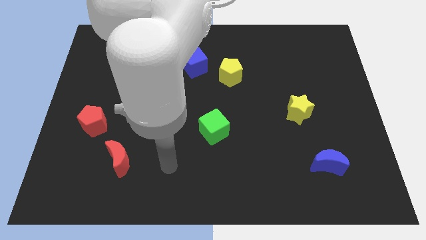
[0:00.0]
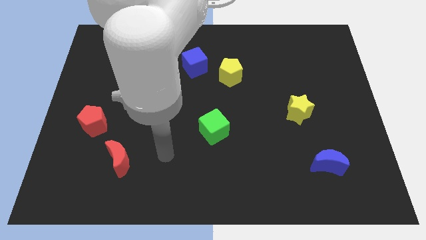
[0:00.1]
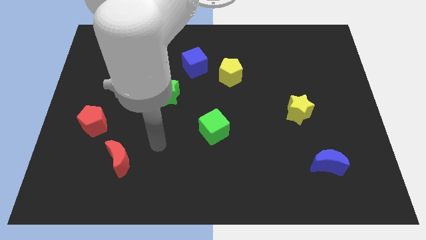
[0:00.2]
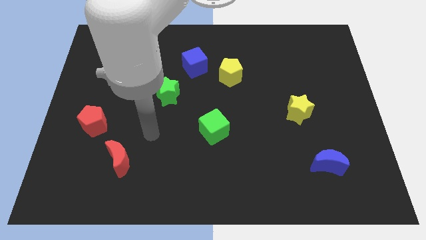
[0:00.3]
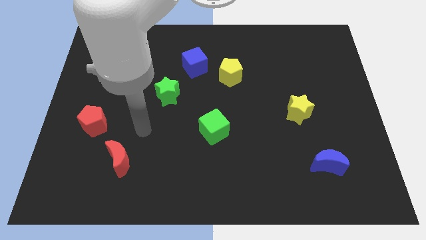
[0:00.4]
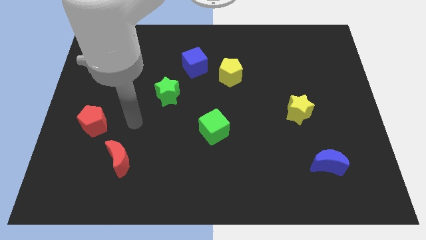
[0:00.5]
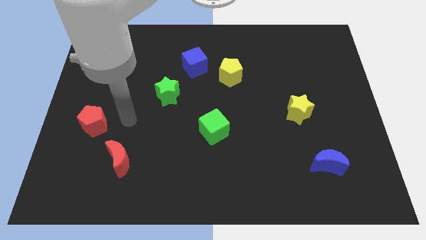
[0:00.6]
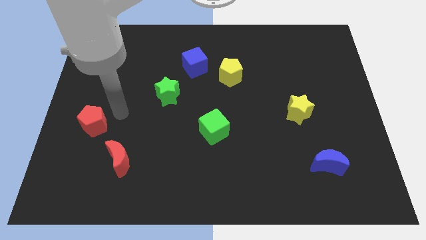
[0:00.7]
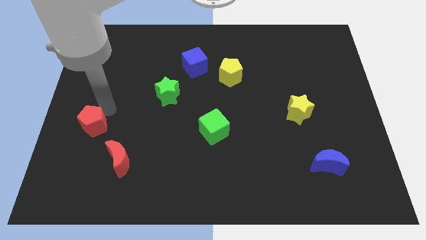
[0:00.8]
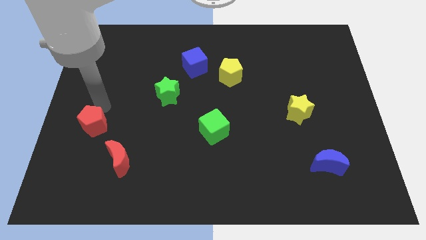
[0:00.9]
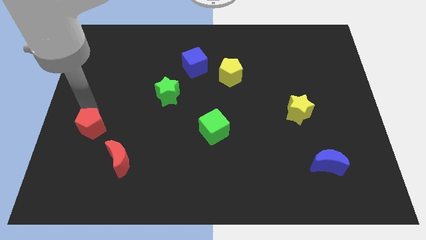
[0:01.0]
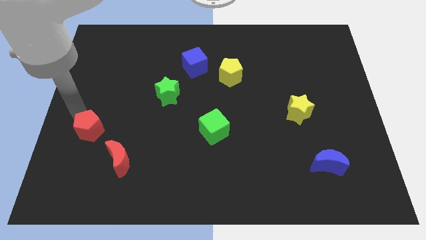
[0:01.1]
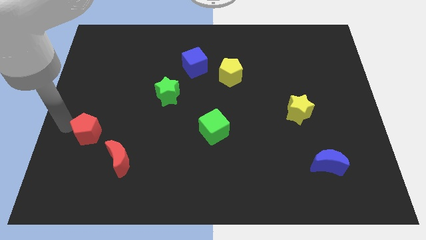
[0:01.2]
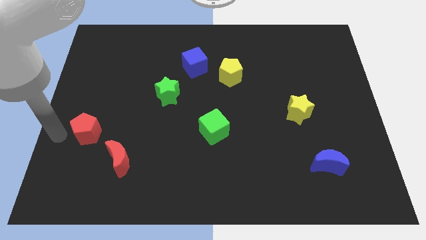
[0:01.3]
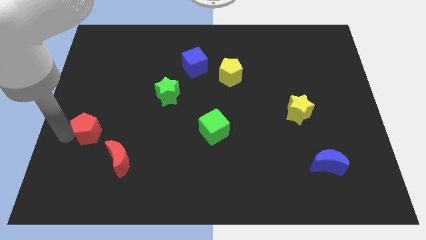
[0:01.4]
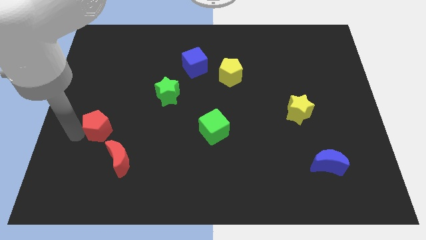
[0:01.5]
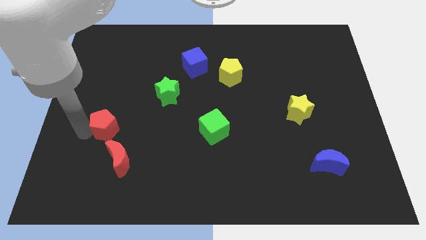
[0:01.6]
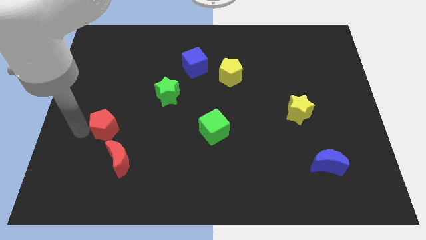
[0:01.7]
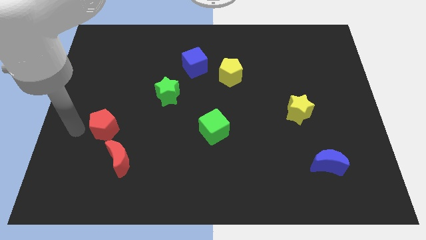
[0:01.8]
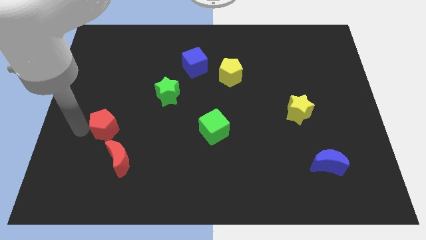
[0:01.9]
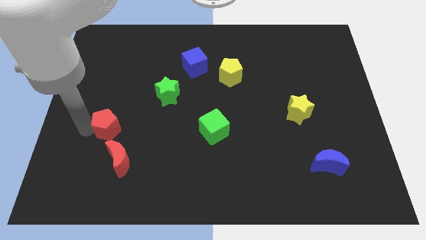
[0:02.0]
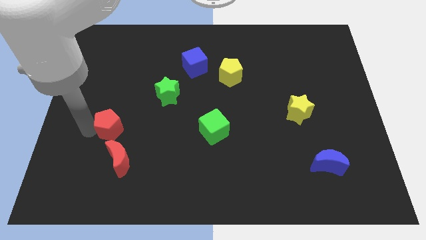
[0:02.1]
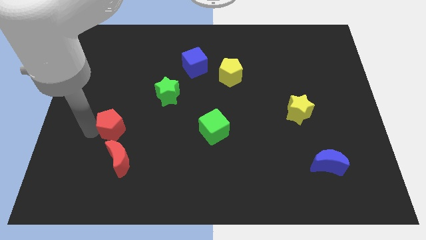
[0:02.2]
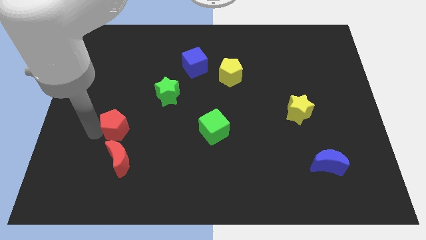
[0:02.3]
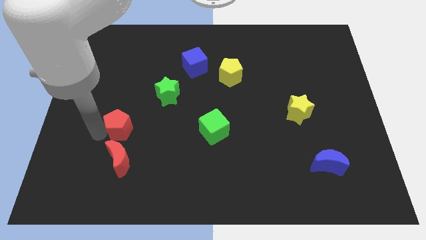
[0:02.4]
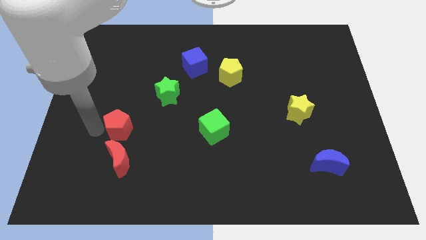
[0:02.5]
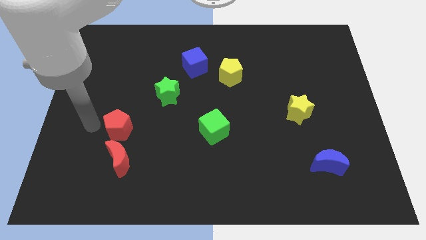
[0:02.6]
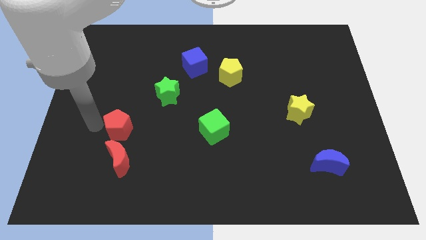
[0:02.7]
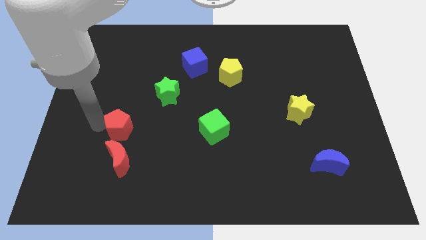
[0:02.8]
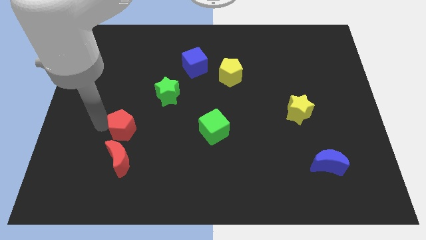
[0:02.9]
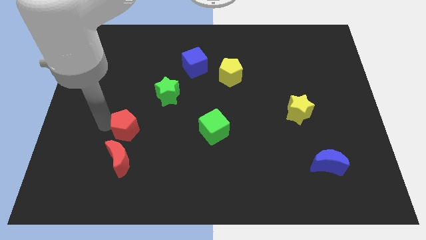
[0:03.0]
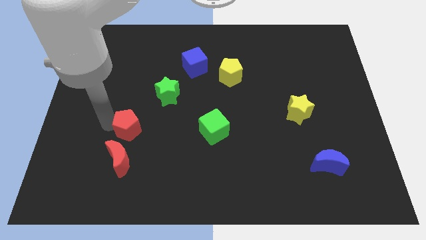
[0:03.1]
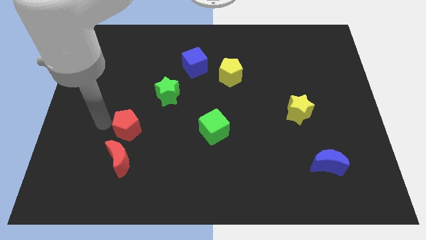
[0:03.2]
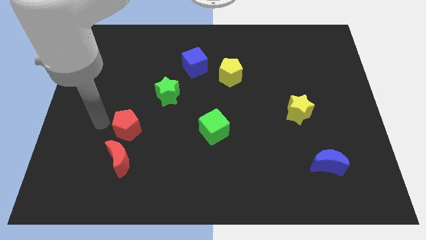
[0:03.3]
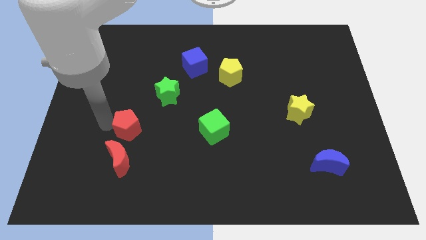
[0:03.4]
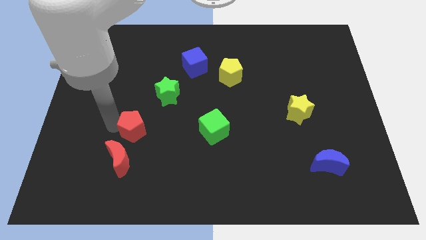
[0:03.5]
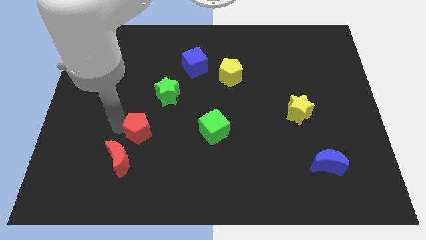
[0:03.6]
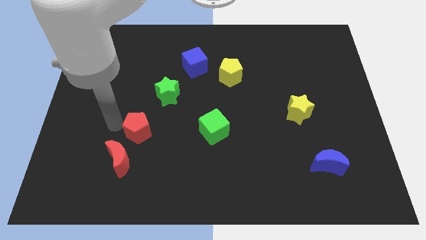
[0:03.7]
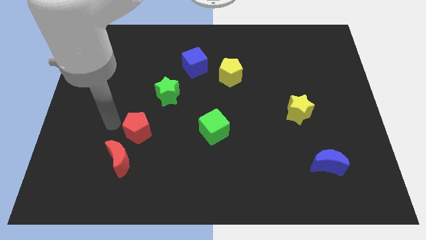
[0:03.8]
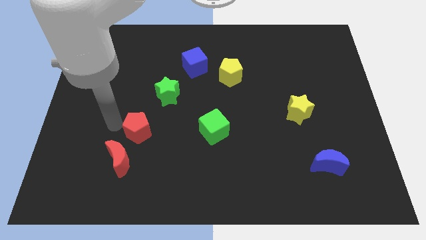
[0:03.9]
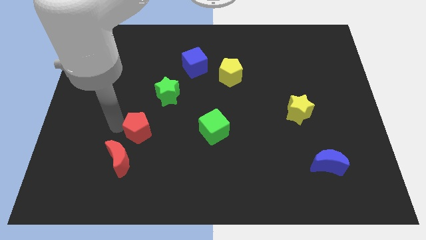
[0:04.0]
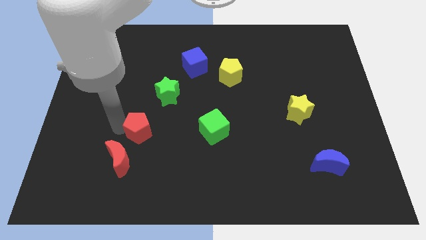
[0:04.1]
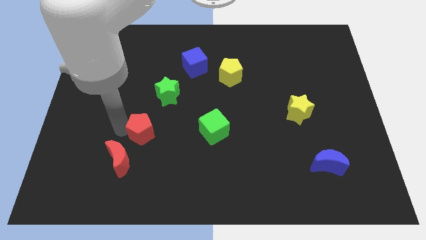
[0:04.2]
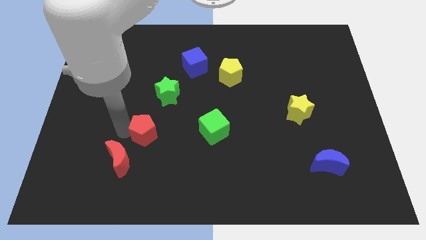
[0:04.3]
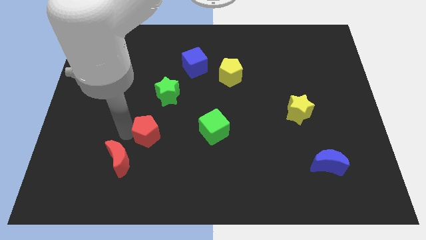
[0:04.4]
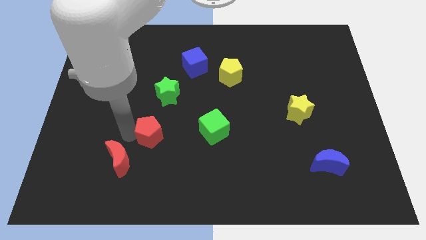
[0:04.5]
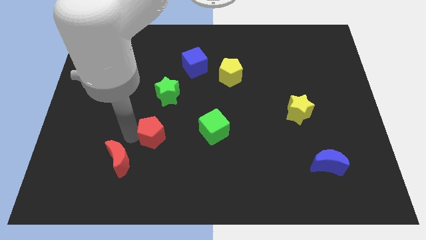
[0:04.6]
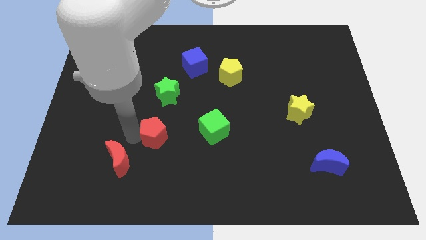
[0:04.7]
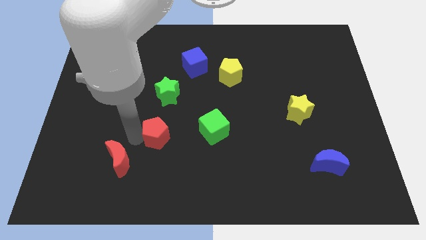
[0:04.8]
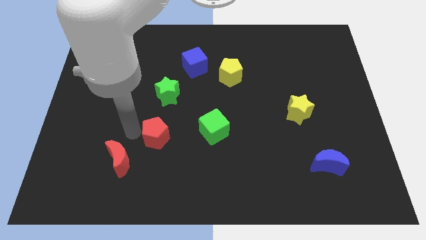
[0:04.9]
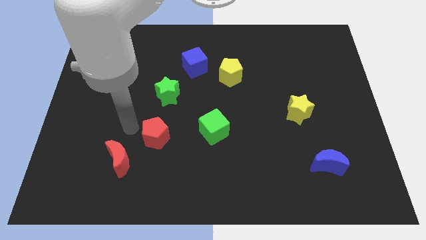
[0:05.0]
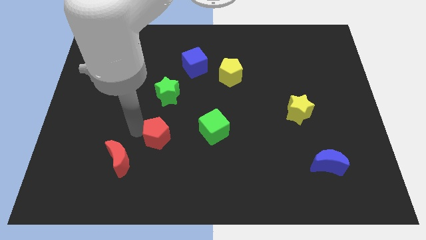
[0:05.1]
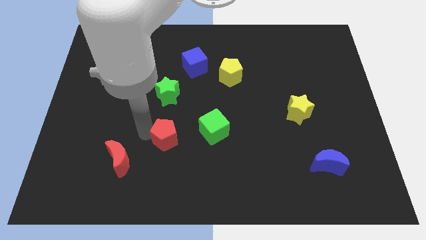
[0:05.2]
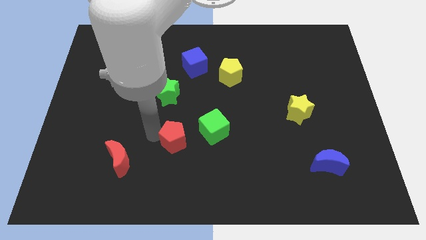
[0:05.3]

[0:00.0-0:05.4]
slide the red pentagon to the bottom left side of the green cube

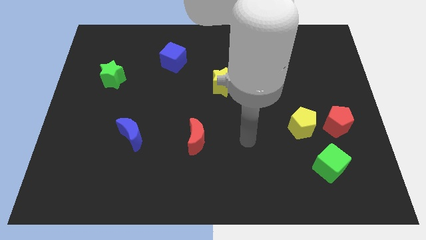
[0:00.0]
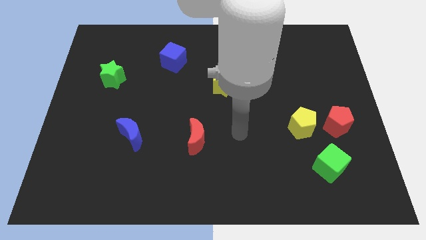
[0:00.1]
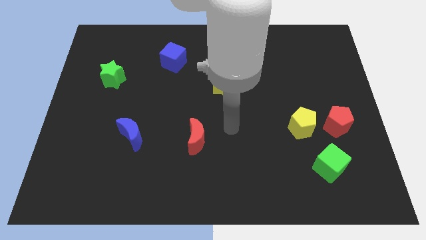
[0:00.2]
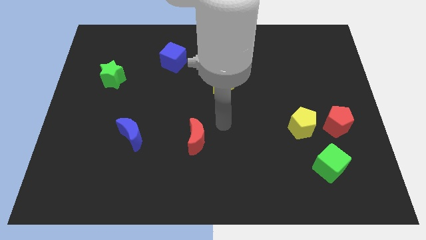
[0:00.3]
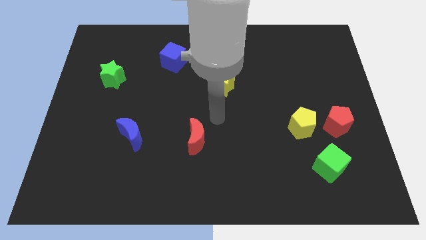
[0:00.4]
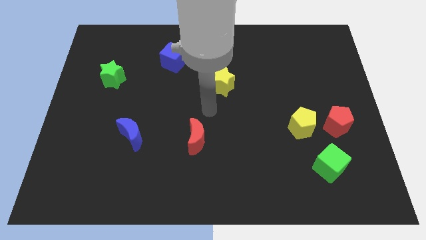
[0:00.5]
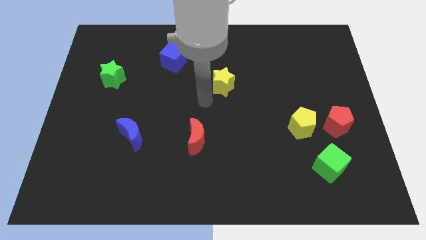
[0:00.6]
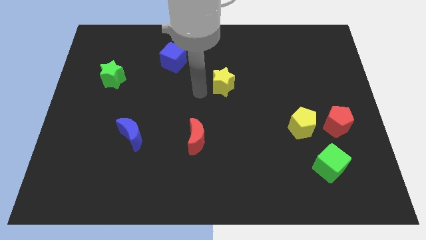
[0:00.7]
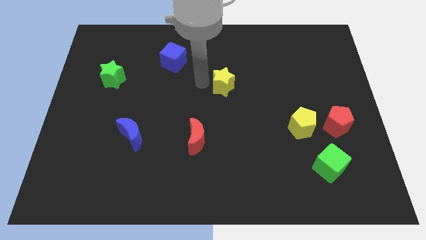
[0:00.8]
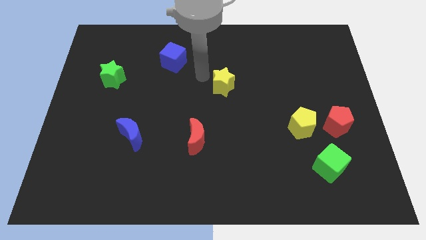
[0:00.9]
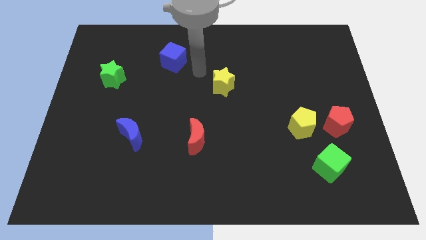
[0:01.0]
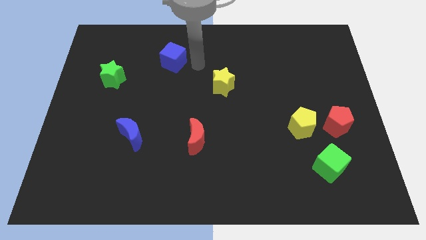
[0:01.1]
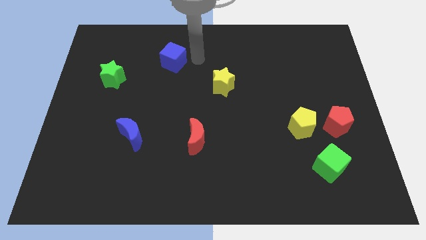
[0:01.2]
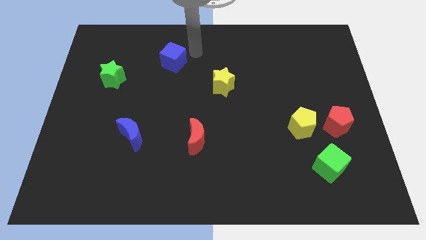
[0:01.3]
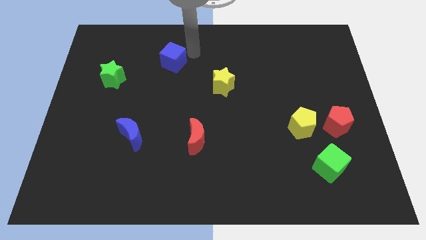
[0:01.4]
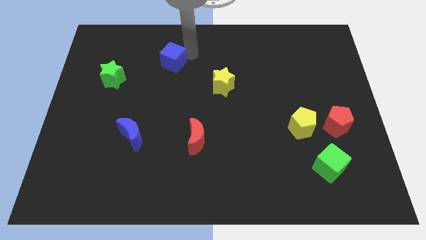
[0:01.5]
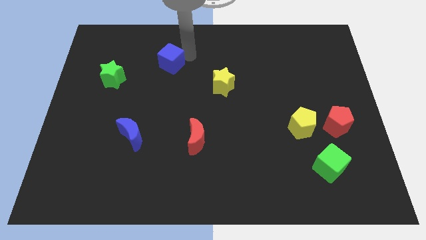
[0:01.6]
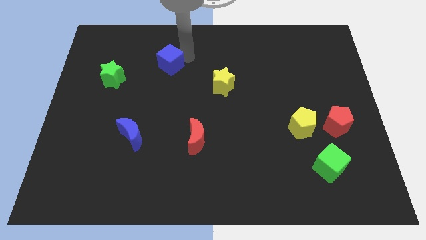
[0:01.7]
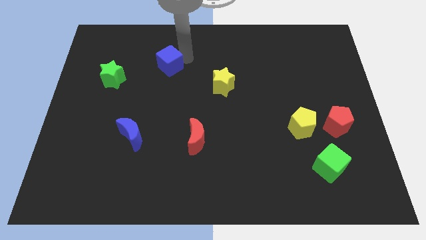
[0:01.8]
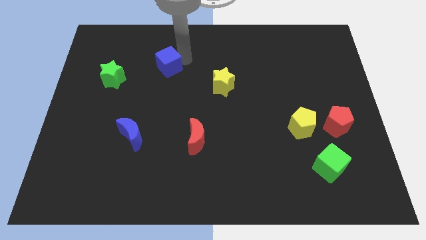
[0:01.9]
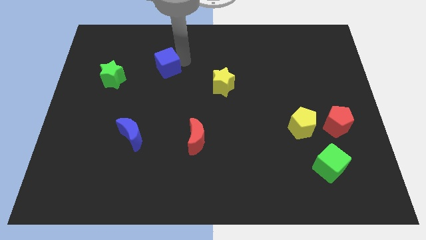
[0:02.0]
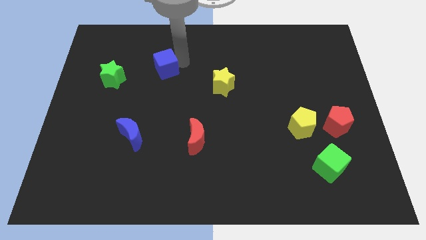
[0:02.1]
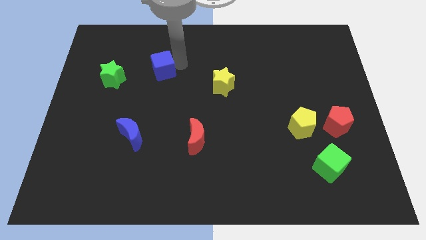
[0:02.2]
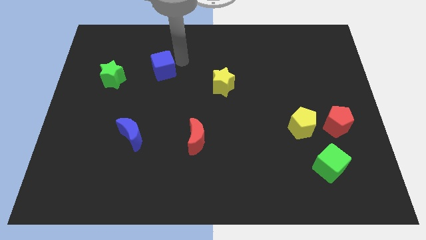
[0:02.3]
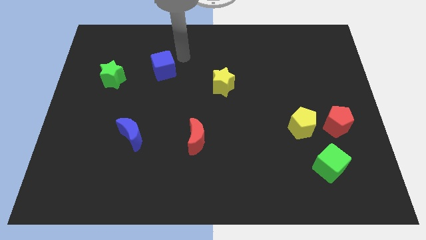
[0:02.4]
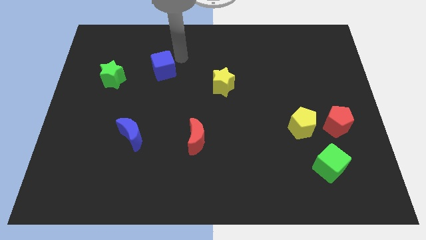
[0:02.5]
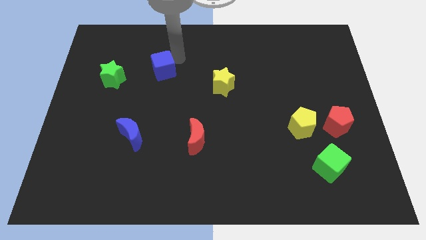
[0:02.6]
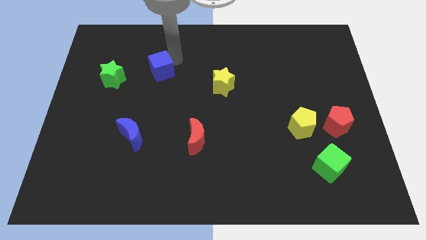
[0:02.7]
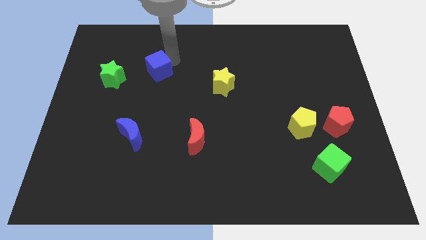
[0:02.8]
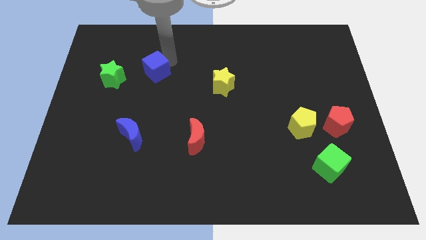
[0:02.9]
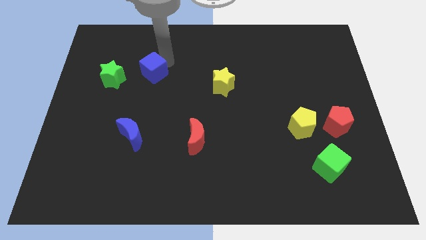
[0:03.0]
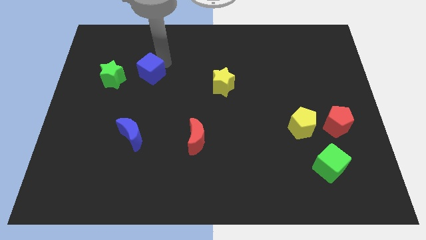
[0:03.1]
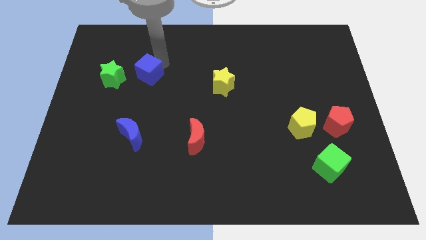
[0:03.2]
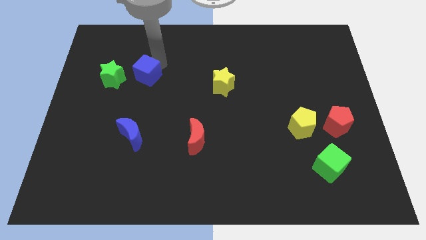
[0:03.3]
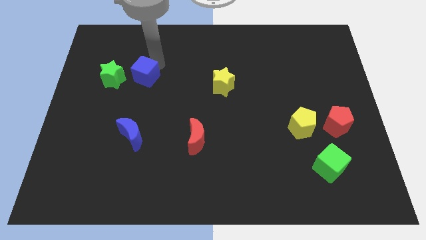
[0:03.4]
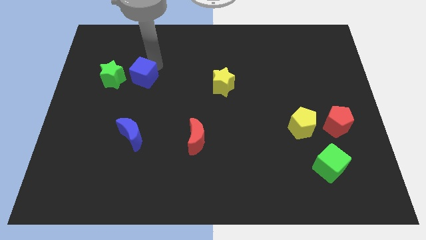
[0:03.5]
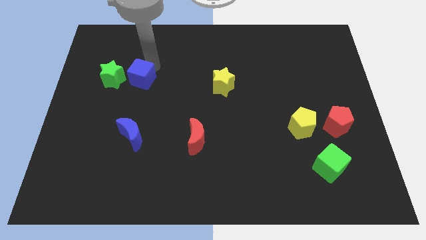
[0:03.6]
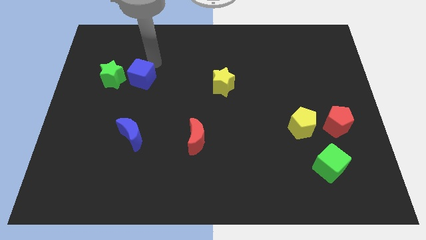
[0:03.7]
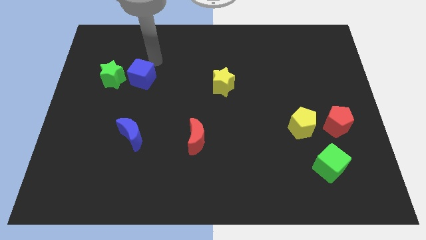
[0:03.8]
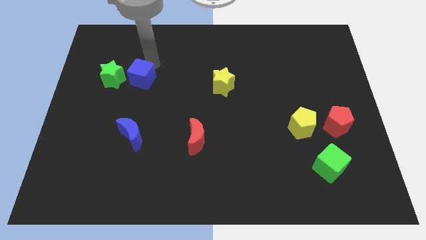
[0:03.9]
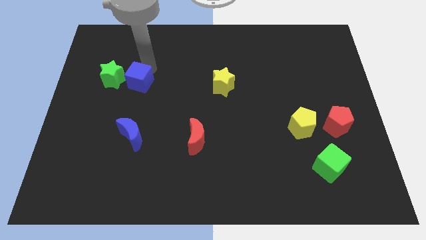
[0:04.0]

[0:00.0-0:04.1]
put the blue cube to the bottom right side of the green star
